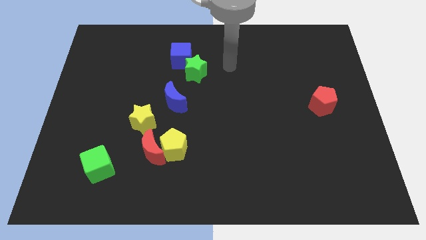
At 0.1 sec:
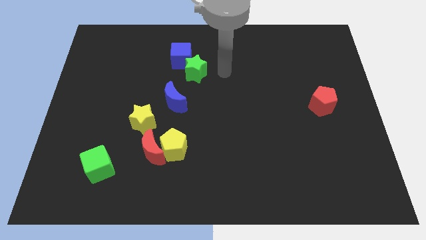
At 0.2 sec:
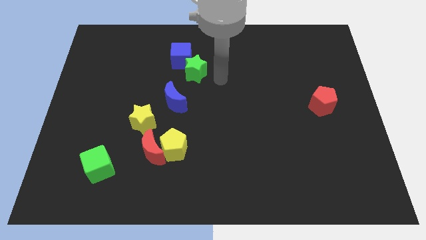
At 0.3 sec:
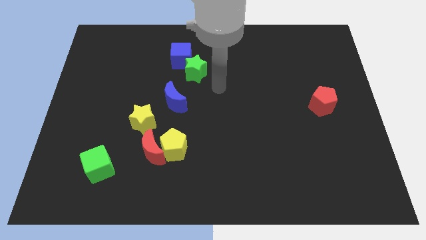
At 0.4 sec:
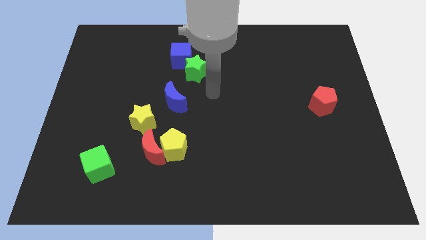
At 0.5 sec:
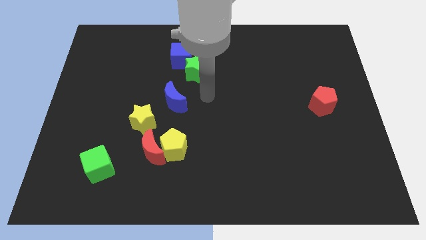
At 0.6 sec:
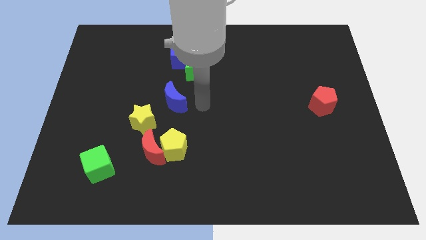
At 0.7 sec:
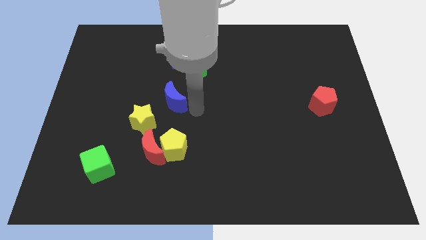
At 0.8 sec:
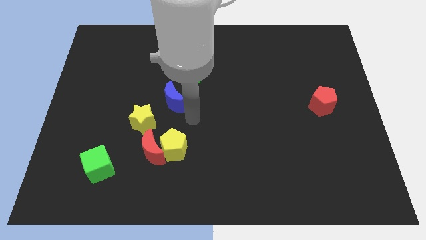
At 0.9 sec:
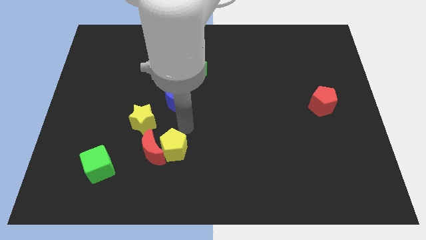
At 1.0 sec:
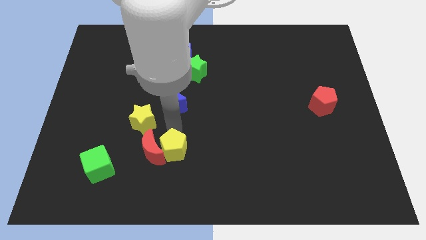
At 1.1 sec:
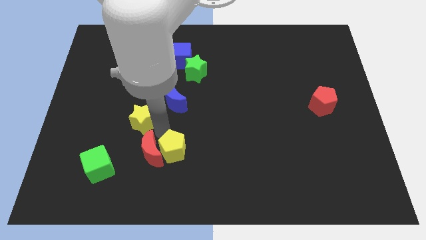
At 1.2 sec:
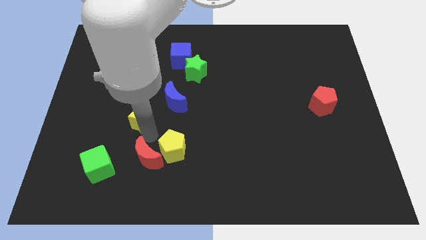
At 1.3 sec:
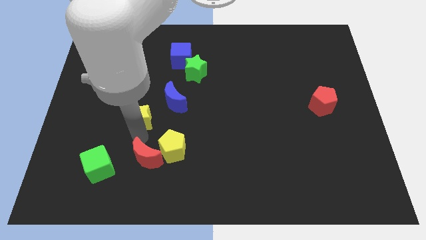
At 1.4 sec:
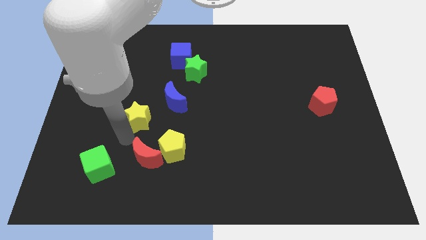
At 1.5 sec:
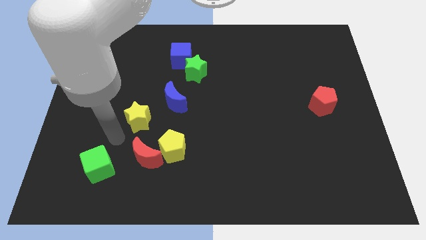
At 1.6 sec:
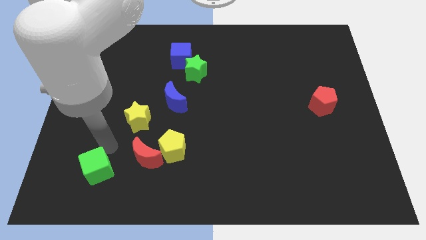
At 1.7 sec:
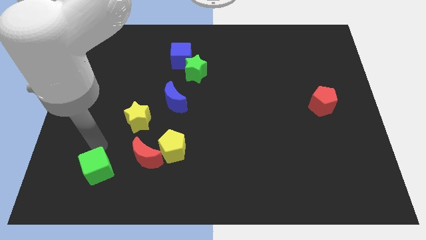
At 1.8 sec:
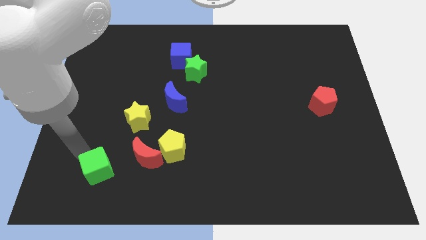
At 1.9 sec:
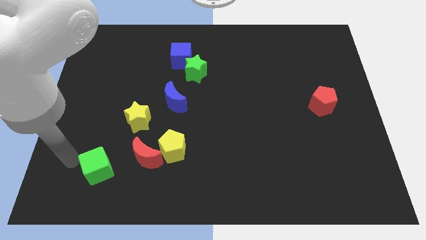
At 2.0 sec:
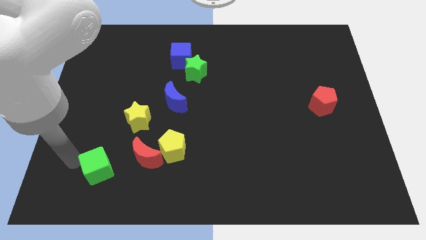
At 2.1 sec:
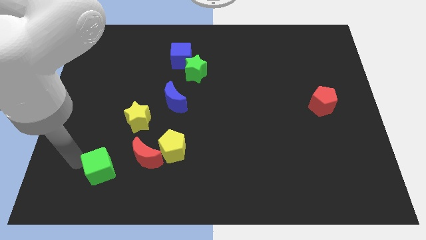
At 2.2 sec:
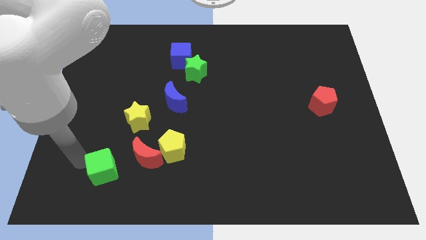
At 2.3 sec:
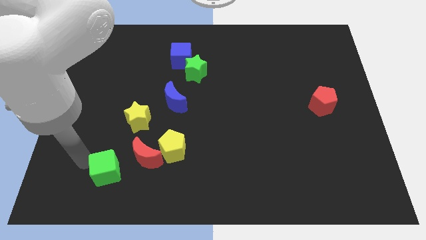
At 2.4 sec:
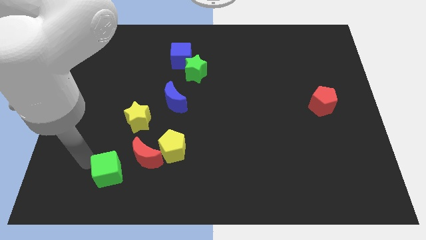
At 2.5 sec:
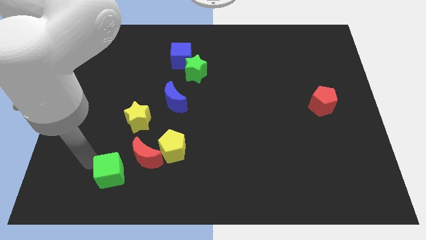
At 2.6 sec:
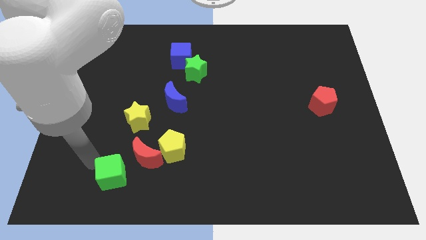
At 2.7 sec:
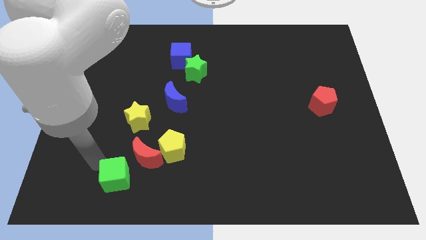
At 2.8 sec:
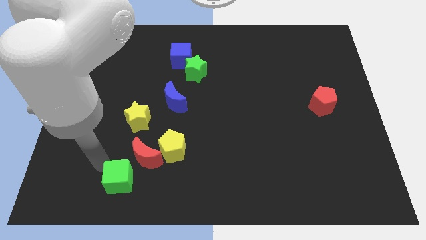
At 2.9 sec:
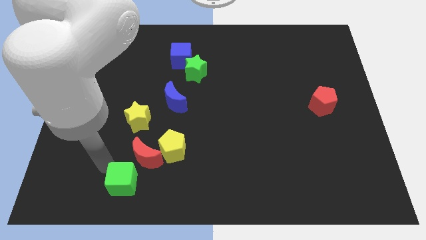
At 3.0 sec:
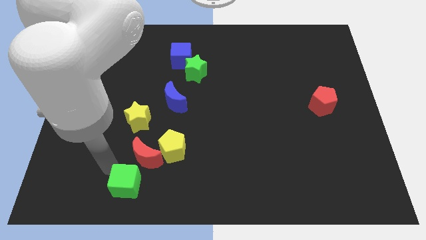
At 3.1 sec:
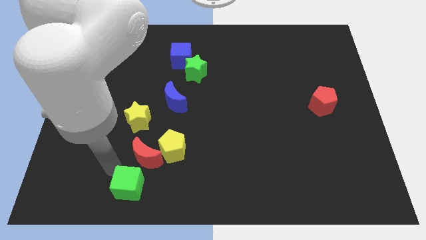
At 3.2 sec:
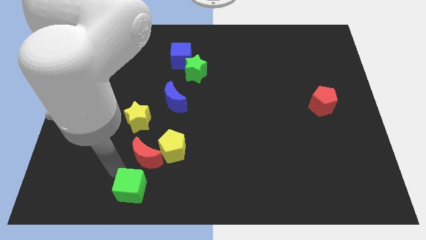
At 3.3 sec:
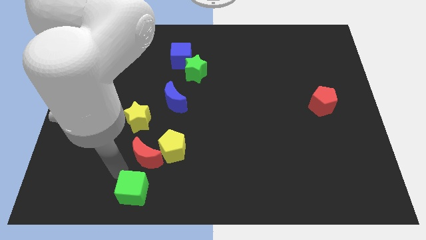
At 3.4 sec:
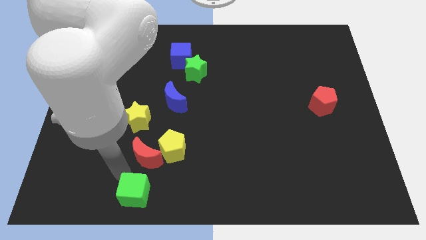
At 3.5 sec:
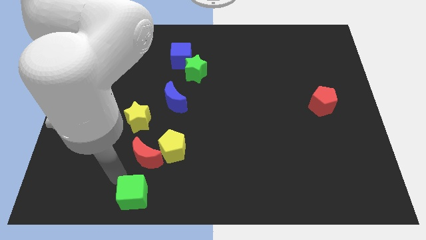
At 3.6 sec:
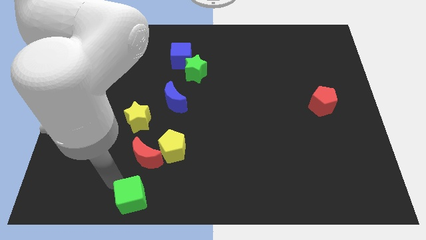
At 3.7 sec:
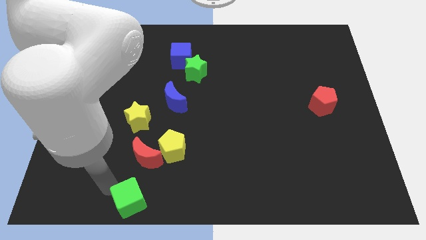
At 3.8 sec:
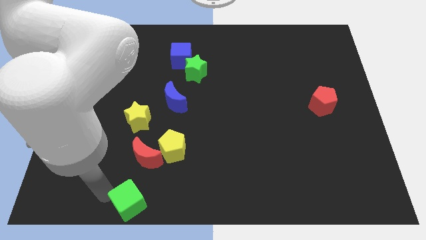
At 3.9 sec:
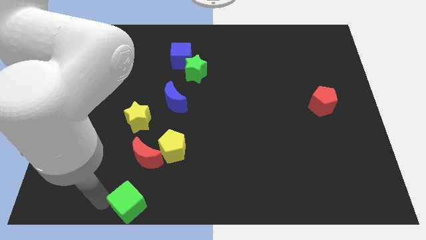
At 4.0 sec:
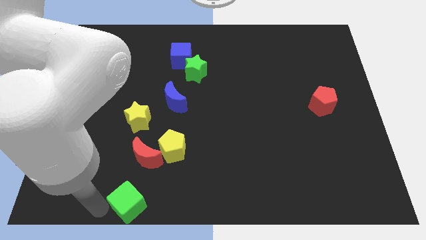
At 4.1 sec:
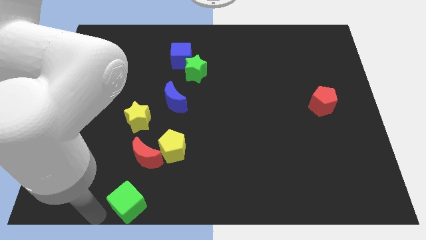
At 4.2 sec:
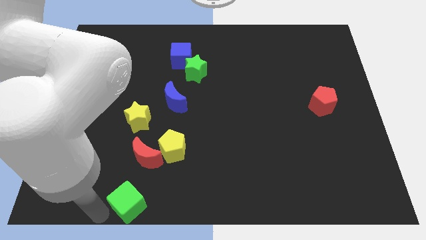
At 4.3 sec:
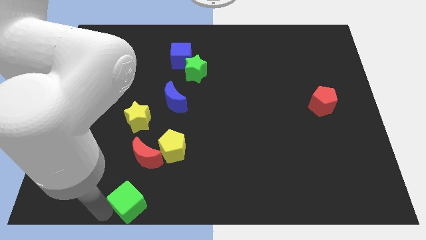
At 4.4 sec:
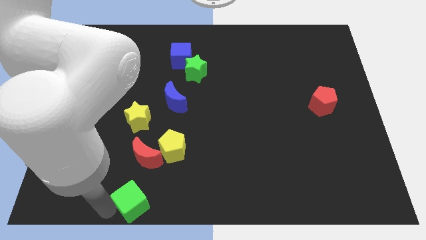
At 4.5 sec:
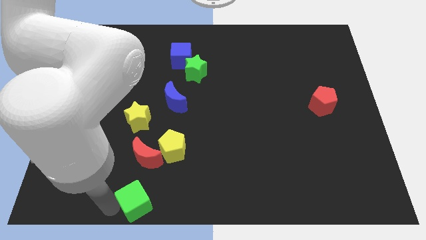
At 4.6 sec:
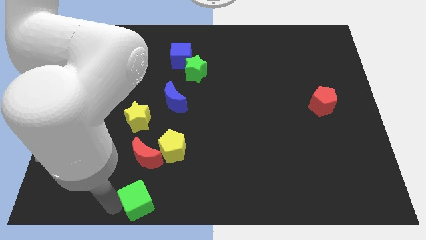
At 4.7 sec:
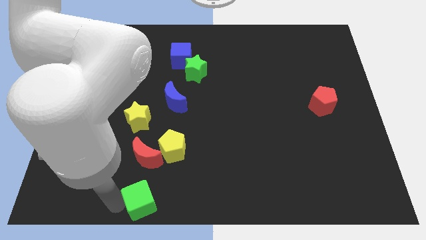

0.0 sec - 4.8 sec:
slide the green cube to the bottom

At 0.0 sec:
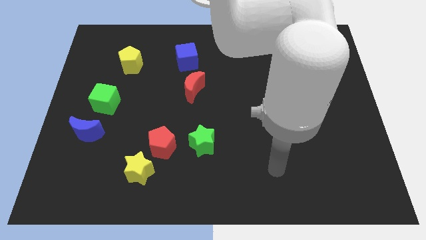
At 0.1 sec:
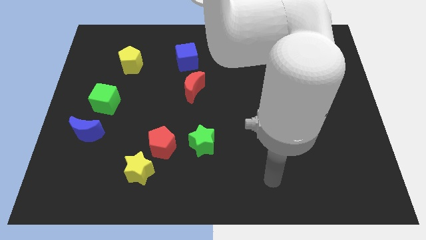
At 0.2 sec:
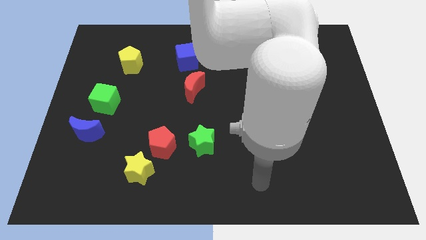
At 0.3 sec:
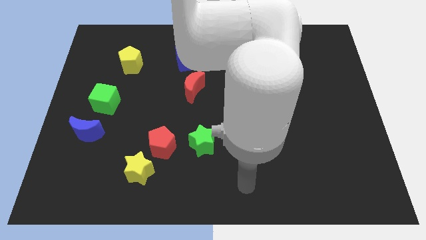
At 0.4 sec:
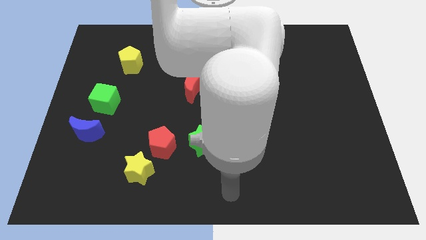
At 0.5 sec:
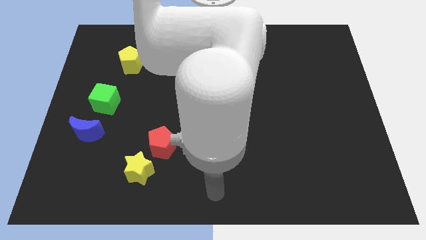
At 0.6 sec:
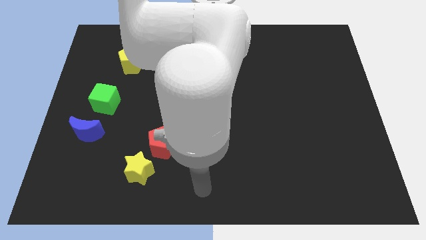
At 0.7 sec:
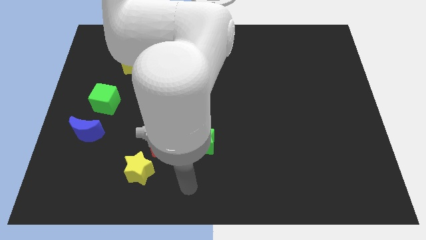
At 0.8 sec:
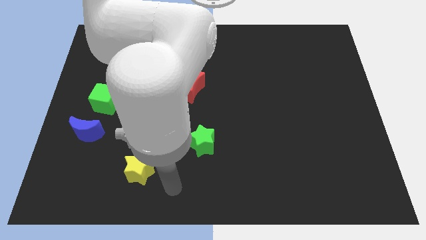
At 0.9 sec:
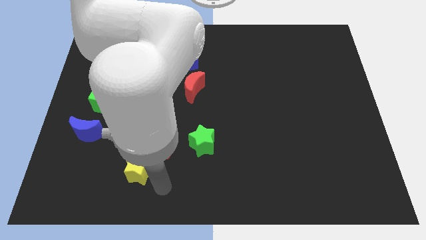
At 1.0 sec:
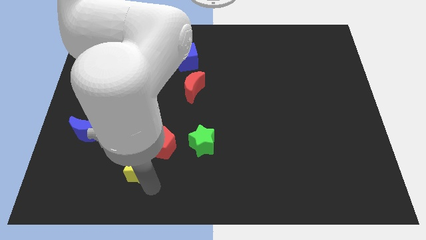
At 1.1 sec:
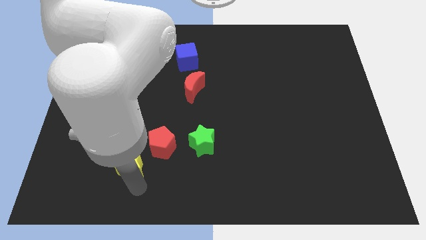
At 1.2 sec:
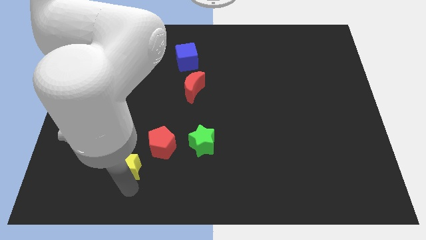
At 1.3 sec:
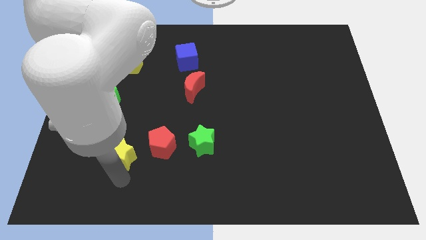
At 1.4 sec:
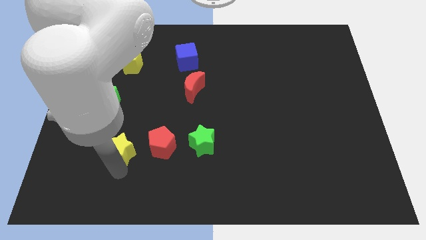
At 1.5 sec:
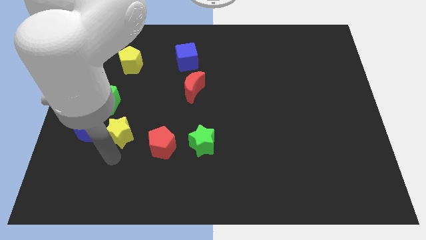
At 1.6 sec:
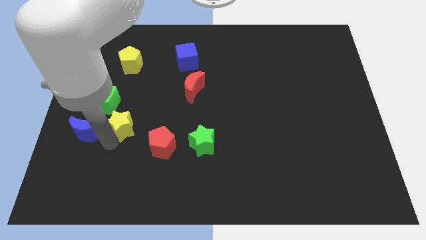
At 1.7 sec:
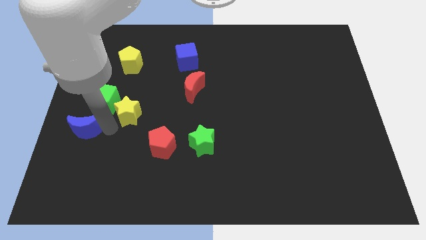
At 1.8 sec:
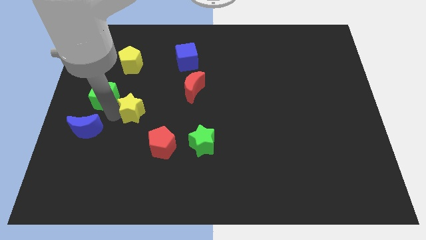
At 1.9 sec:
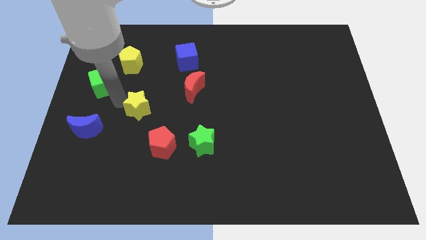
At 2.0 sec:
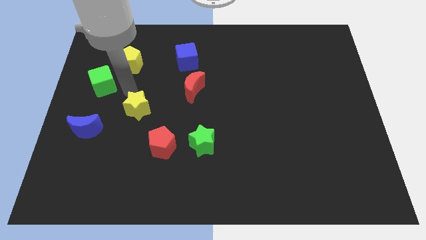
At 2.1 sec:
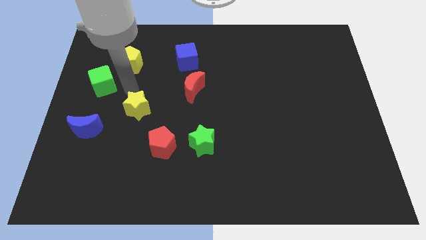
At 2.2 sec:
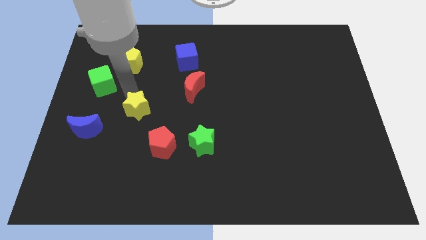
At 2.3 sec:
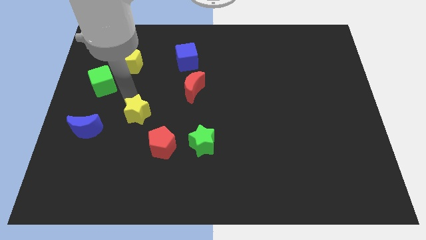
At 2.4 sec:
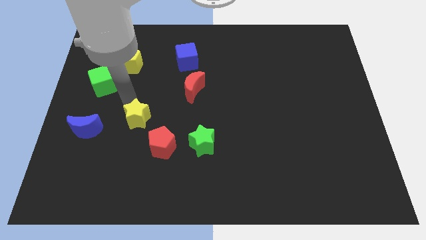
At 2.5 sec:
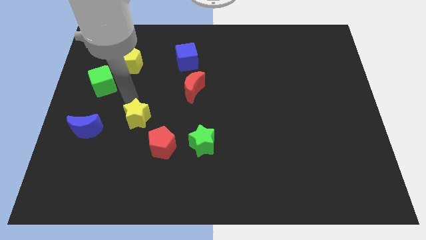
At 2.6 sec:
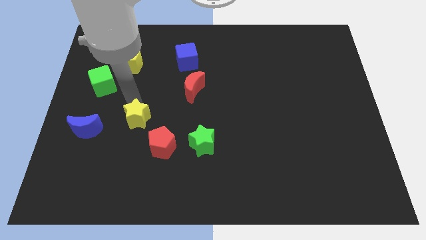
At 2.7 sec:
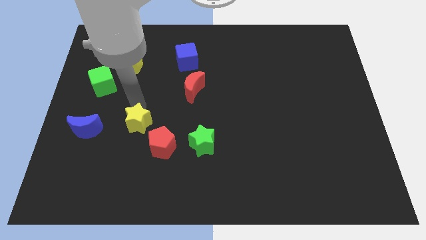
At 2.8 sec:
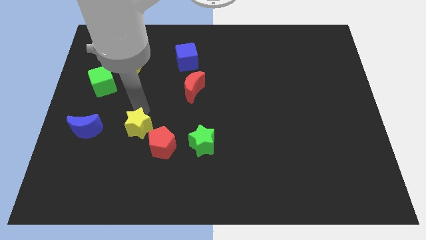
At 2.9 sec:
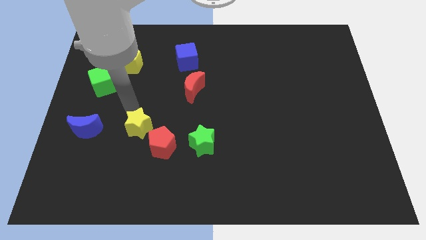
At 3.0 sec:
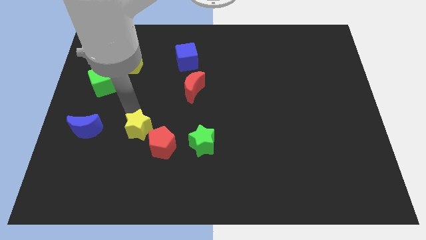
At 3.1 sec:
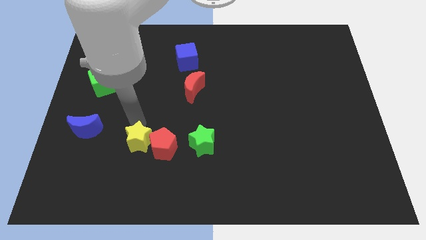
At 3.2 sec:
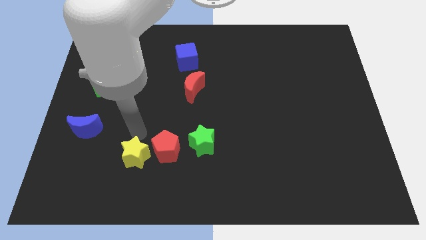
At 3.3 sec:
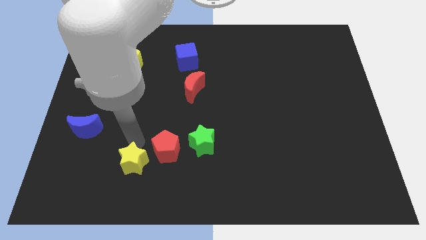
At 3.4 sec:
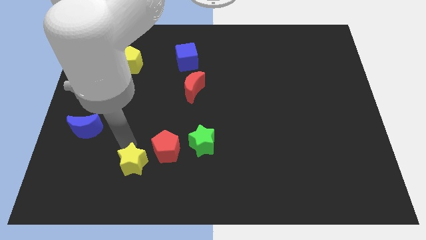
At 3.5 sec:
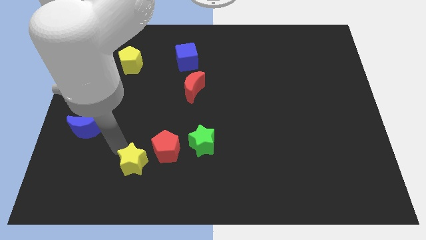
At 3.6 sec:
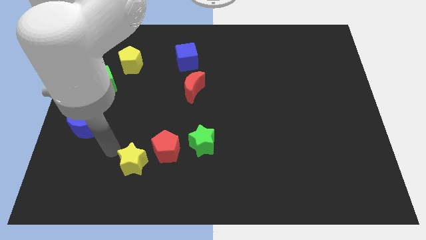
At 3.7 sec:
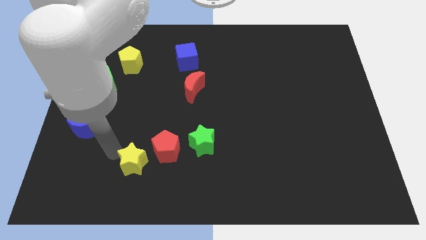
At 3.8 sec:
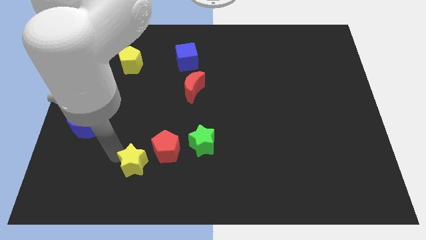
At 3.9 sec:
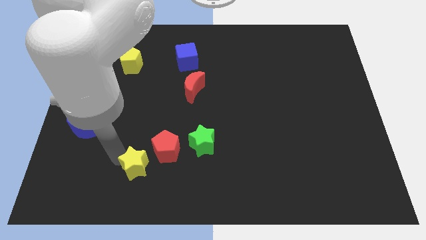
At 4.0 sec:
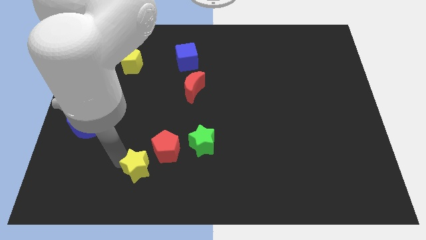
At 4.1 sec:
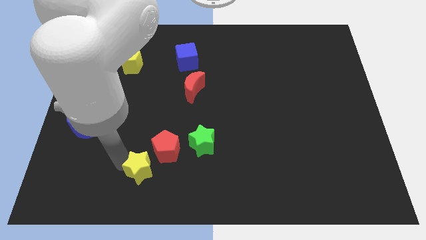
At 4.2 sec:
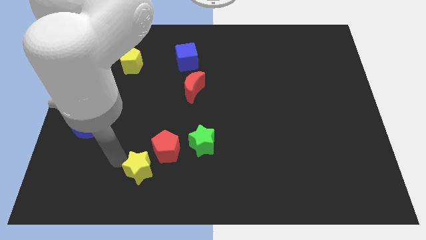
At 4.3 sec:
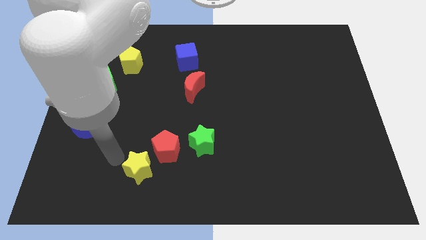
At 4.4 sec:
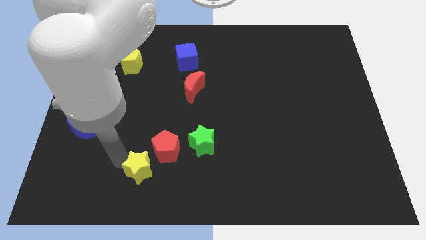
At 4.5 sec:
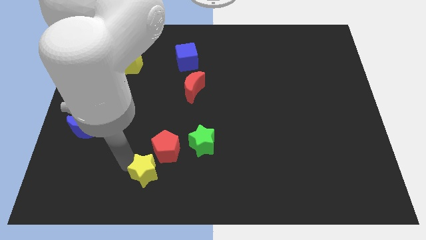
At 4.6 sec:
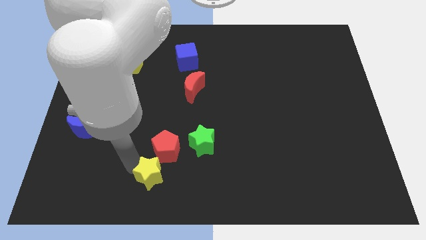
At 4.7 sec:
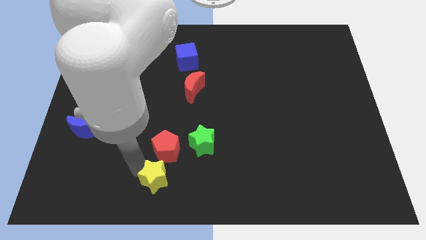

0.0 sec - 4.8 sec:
push the yellow star to the bottom side
